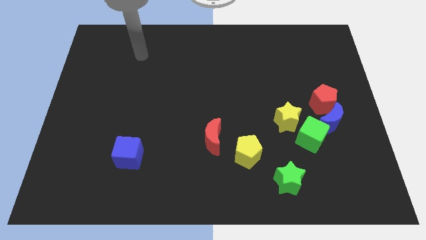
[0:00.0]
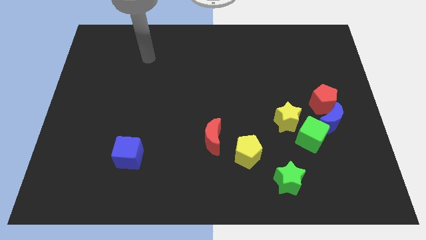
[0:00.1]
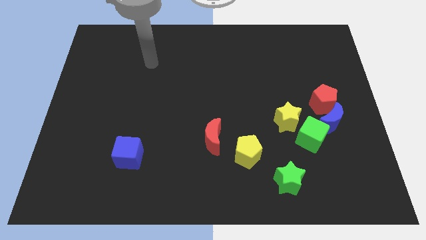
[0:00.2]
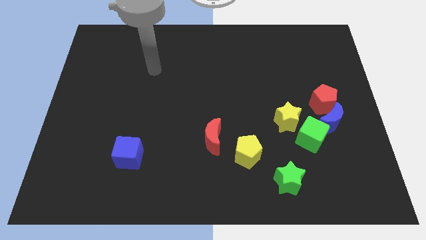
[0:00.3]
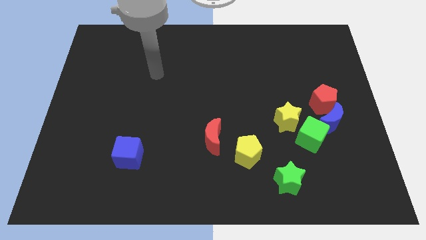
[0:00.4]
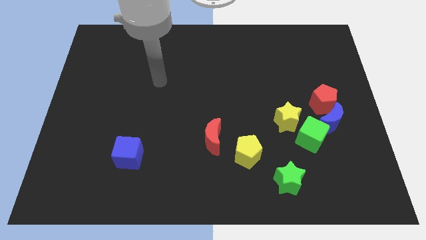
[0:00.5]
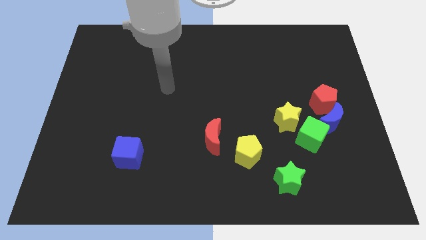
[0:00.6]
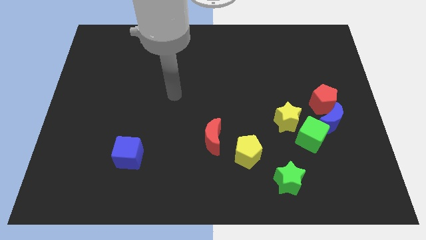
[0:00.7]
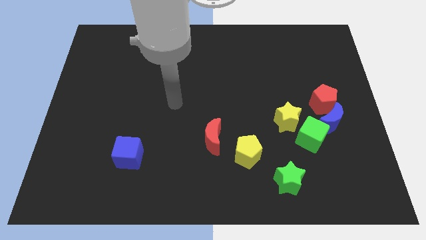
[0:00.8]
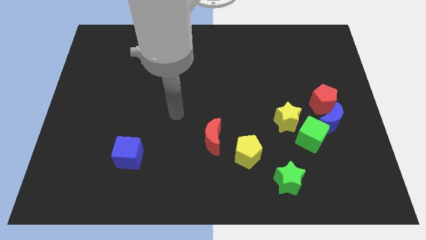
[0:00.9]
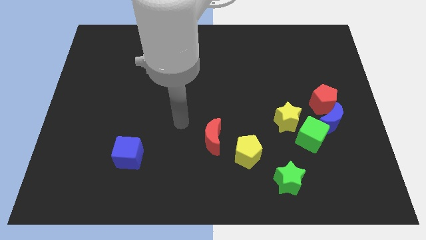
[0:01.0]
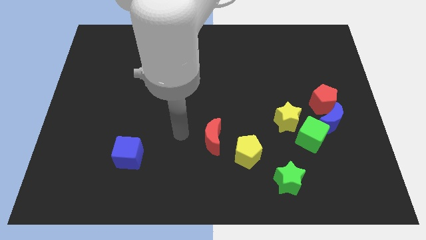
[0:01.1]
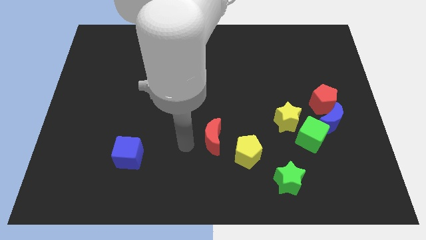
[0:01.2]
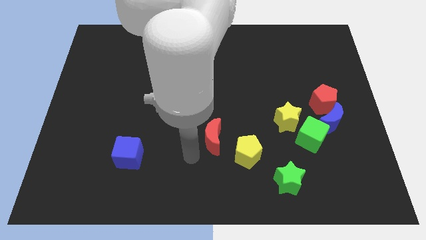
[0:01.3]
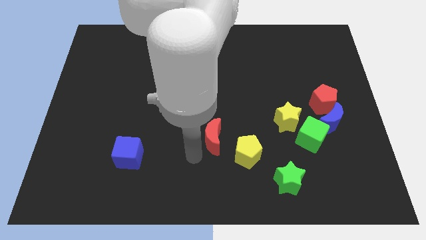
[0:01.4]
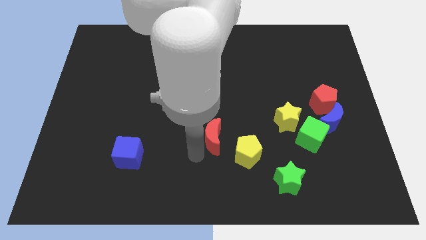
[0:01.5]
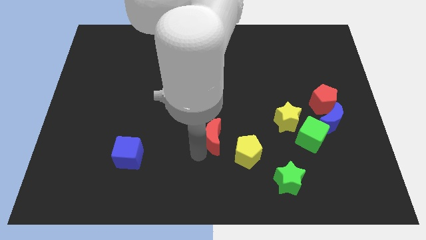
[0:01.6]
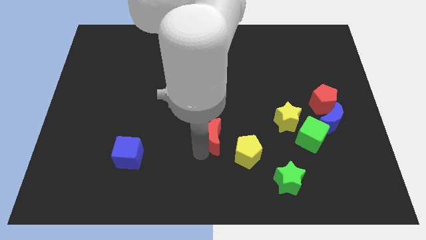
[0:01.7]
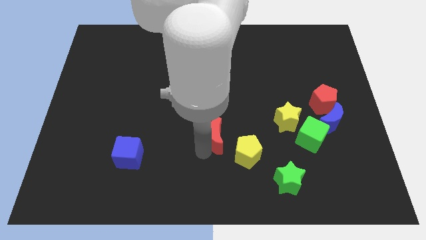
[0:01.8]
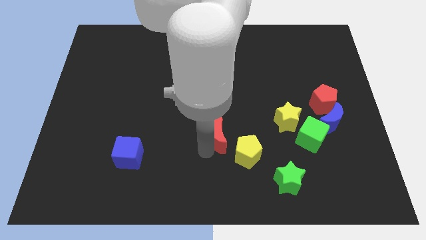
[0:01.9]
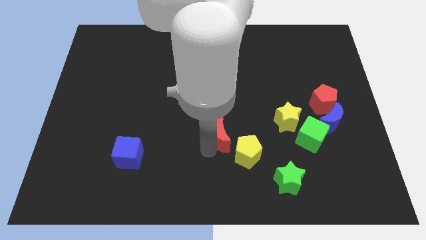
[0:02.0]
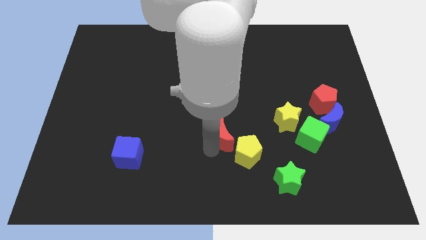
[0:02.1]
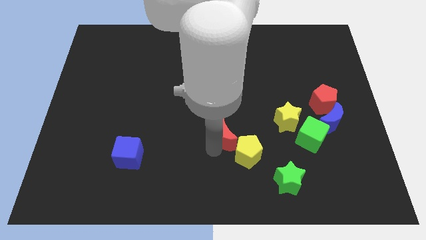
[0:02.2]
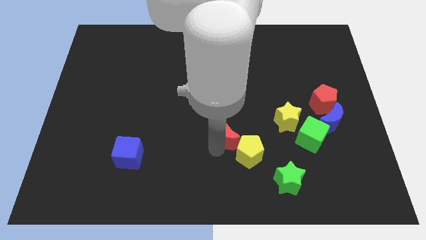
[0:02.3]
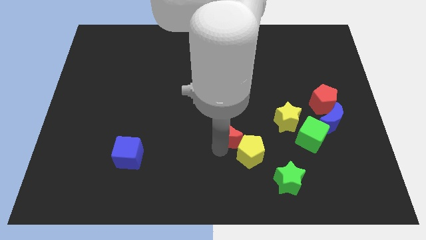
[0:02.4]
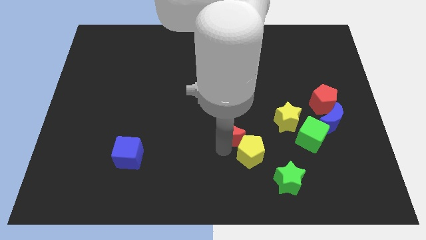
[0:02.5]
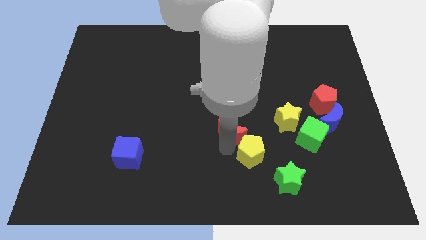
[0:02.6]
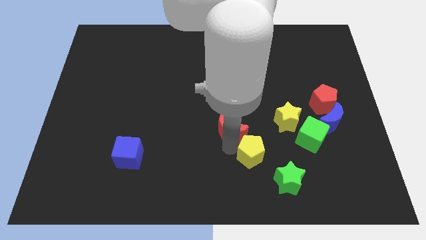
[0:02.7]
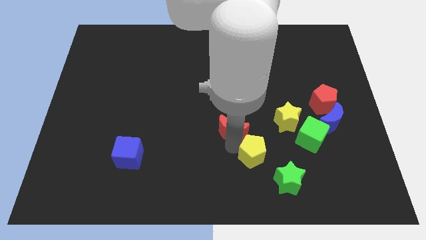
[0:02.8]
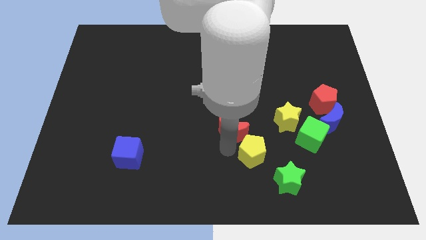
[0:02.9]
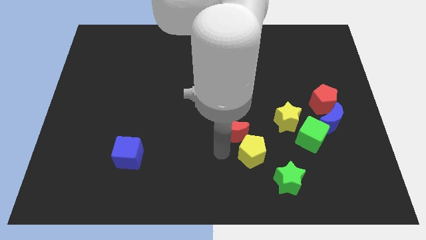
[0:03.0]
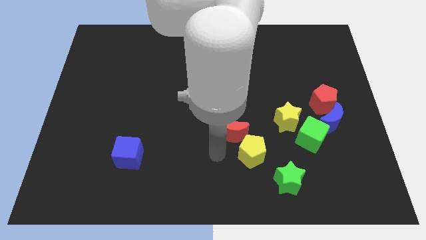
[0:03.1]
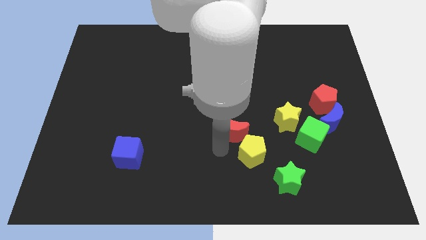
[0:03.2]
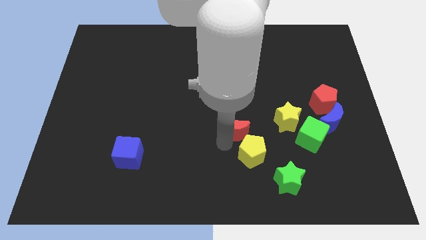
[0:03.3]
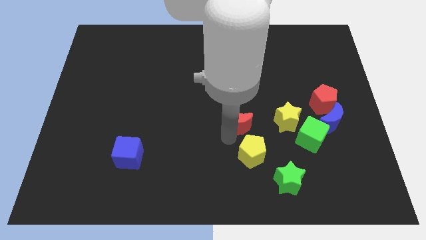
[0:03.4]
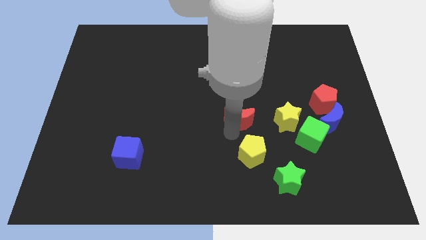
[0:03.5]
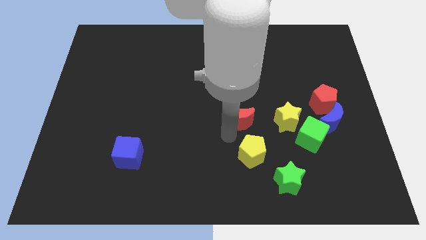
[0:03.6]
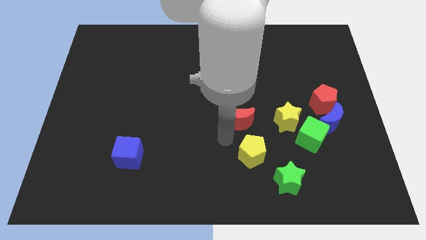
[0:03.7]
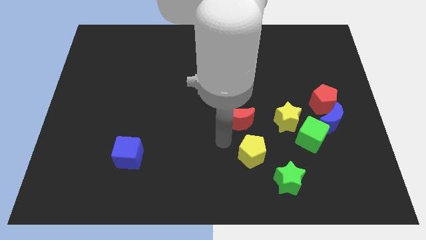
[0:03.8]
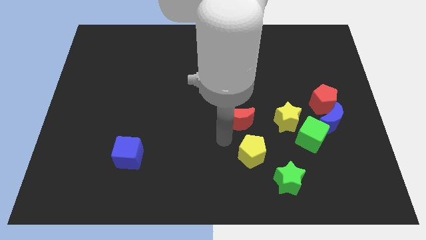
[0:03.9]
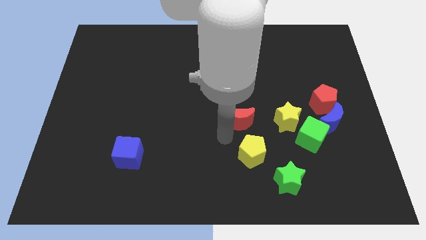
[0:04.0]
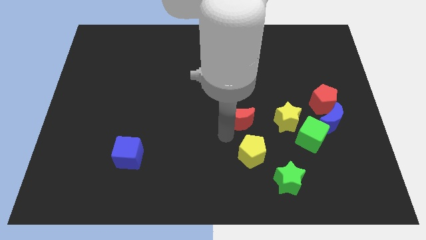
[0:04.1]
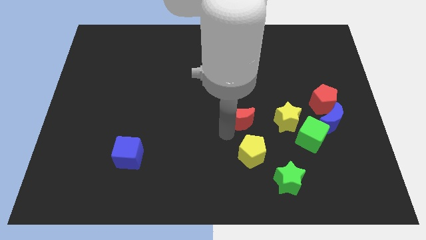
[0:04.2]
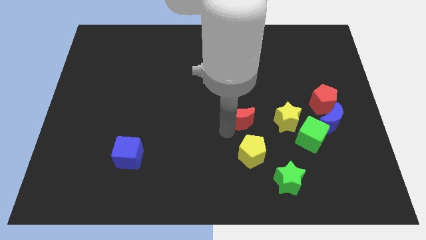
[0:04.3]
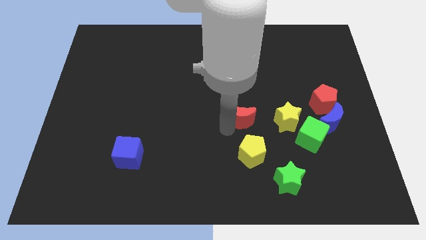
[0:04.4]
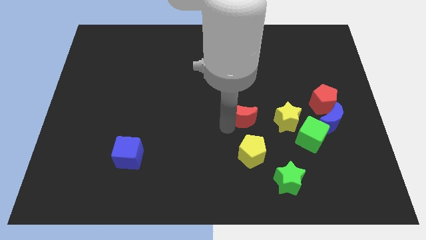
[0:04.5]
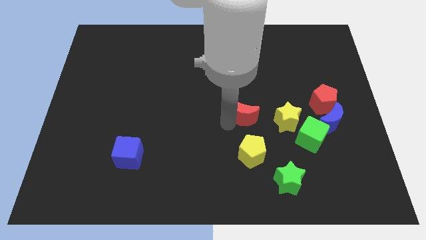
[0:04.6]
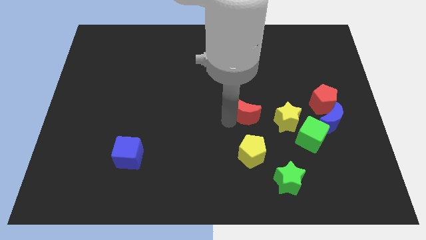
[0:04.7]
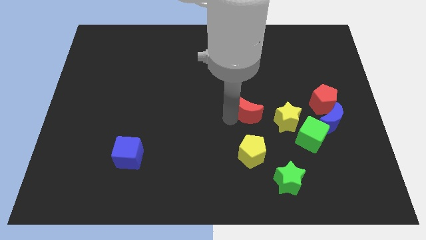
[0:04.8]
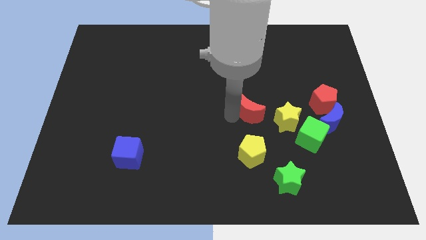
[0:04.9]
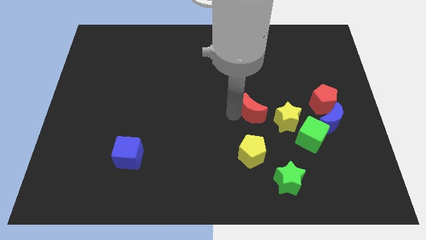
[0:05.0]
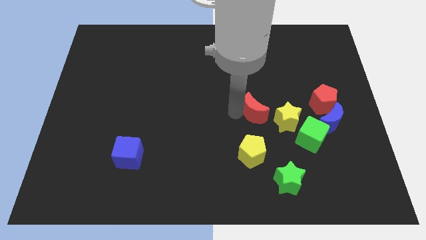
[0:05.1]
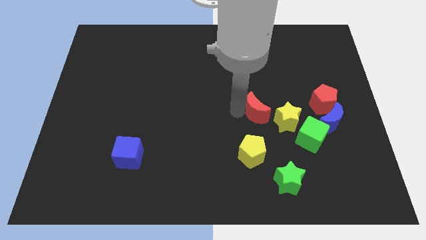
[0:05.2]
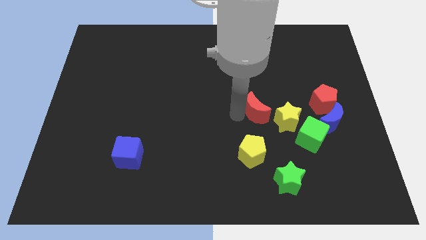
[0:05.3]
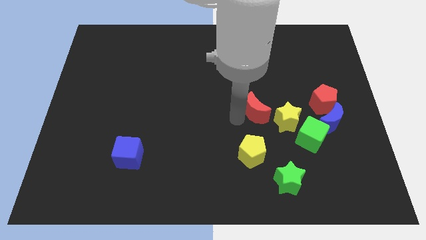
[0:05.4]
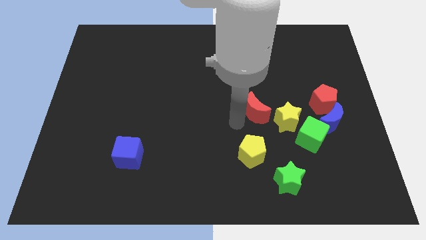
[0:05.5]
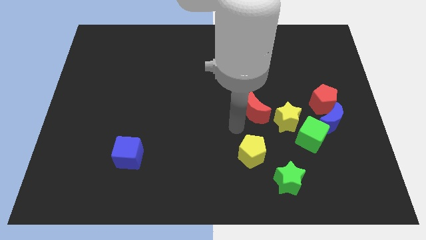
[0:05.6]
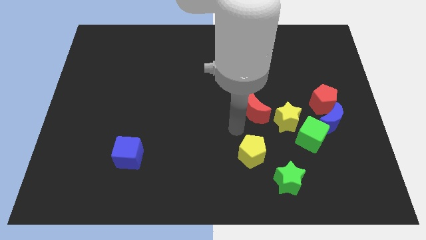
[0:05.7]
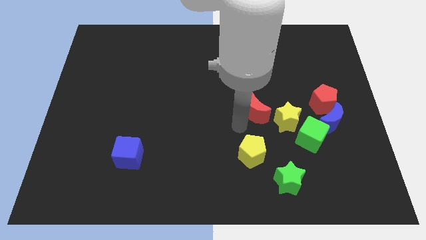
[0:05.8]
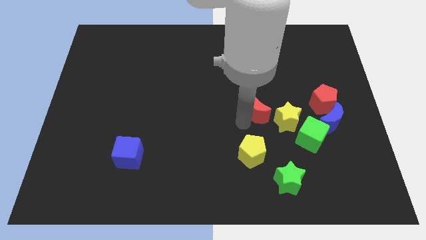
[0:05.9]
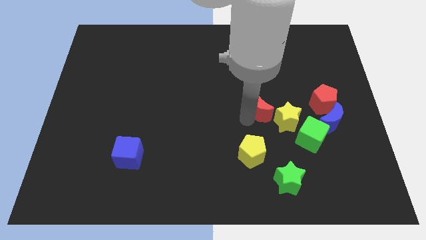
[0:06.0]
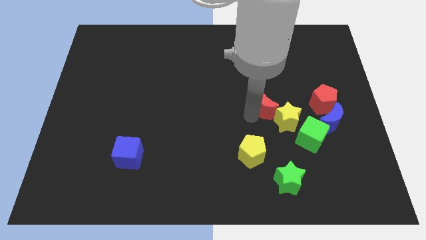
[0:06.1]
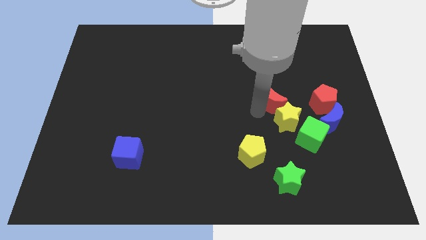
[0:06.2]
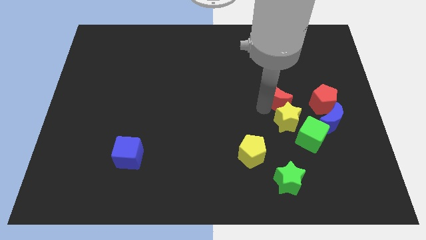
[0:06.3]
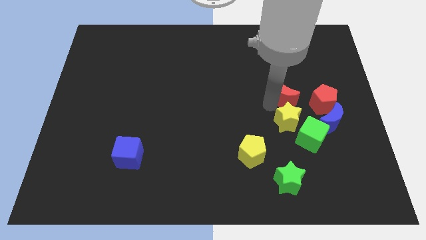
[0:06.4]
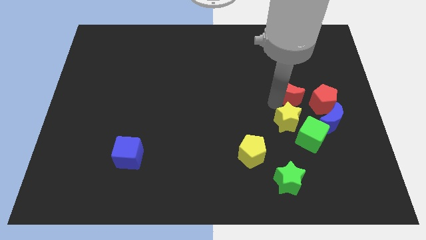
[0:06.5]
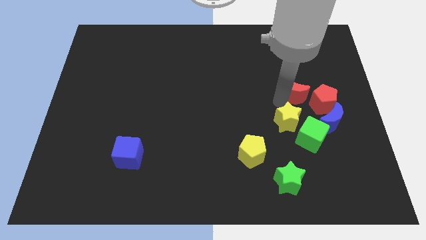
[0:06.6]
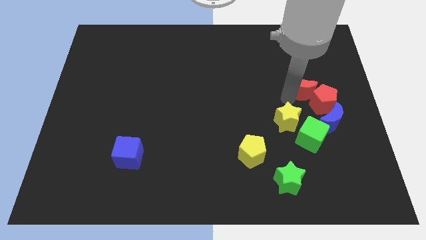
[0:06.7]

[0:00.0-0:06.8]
slide the red moon to the top side of the red pentagon
